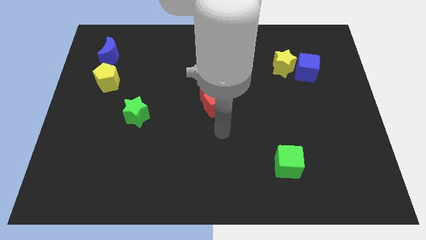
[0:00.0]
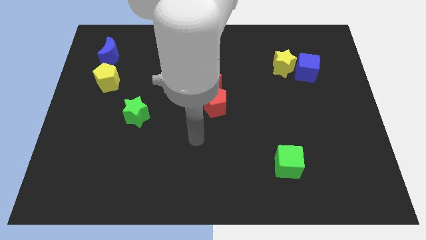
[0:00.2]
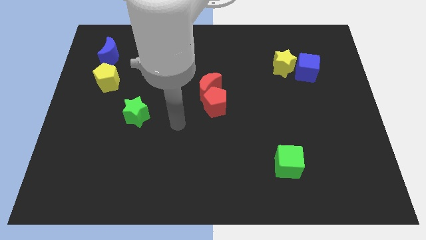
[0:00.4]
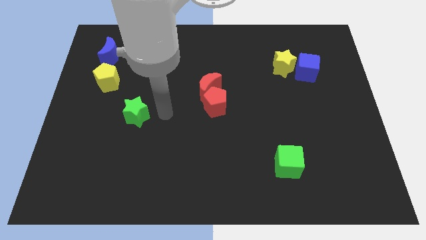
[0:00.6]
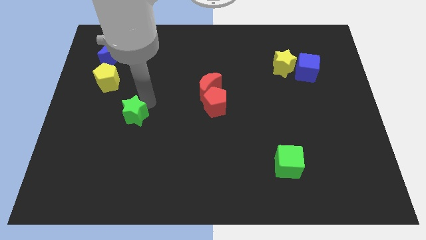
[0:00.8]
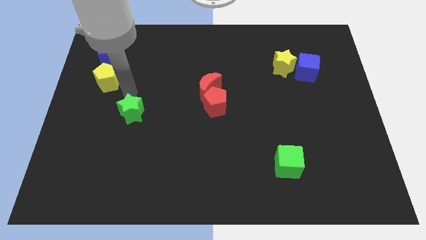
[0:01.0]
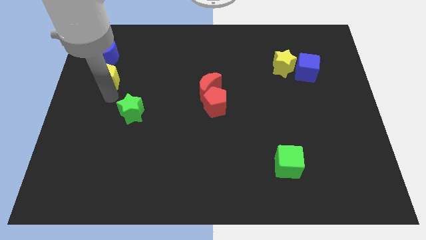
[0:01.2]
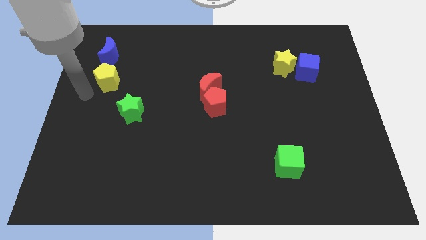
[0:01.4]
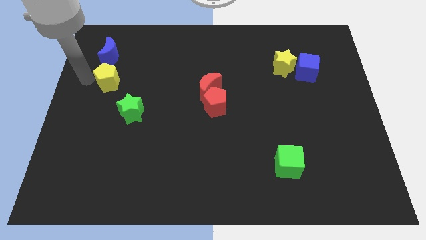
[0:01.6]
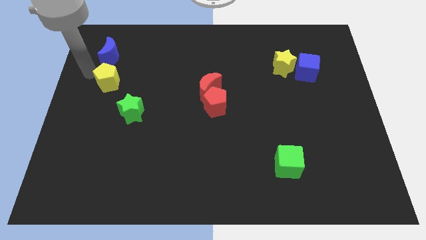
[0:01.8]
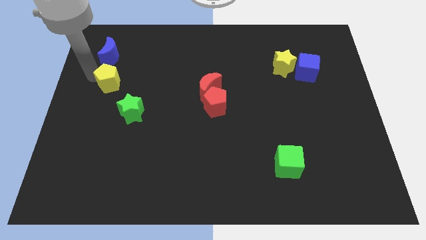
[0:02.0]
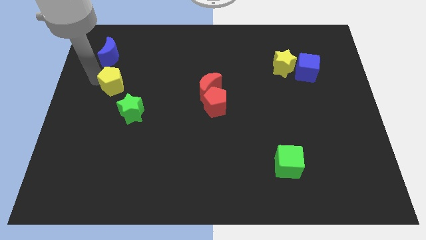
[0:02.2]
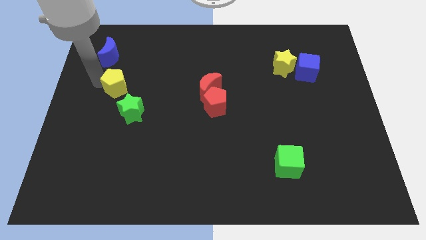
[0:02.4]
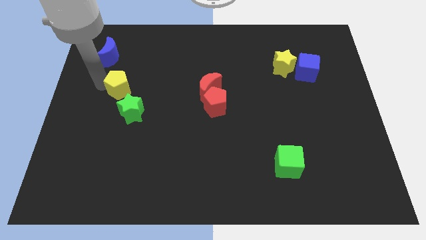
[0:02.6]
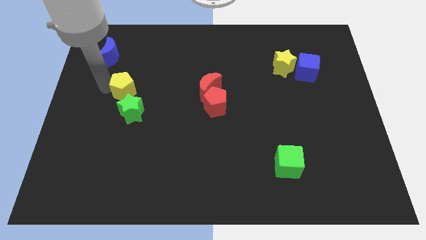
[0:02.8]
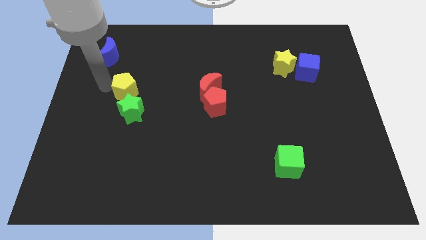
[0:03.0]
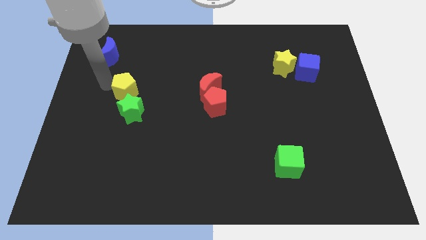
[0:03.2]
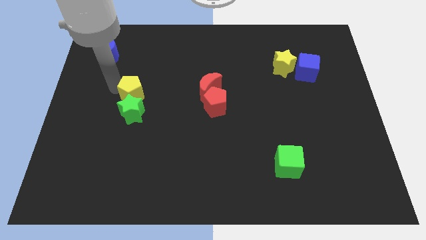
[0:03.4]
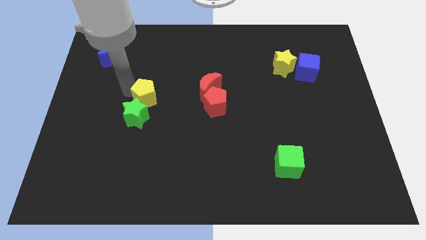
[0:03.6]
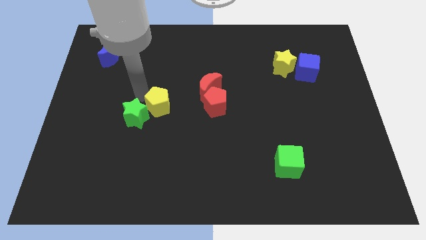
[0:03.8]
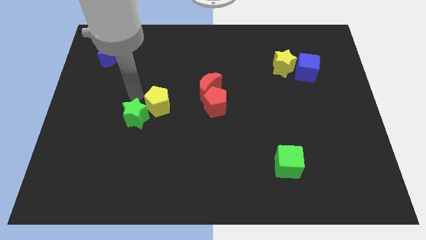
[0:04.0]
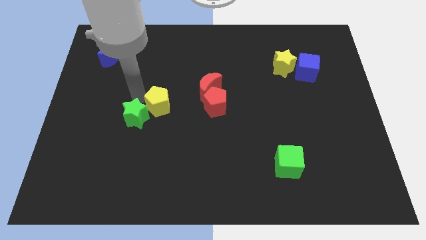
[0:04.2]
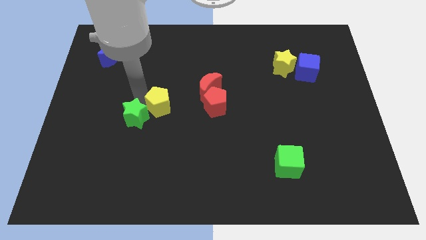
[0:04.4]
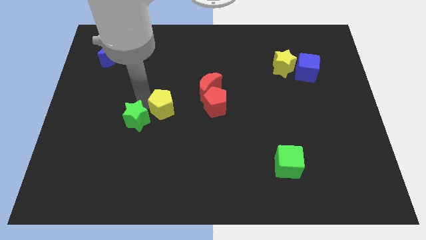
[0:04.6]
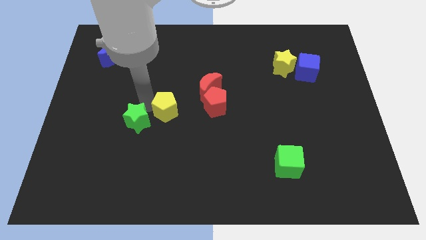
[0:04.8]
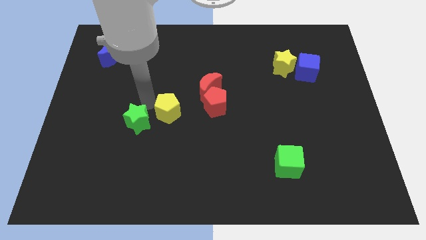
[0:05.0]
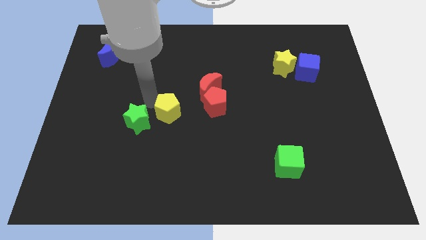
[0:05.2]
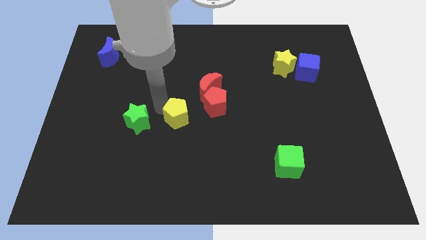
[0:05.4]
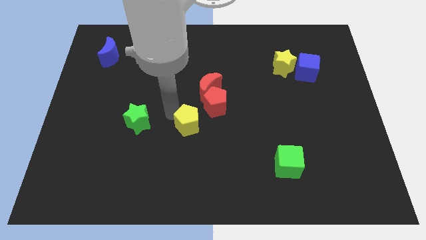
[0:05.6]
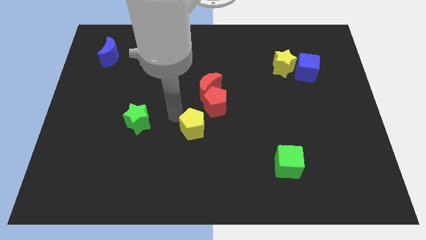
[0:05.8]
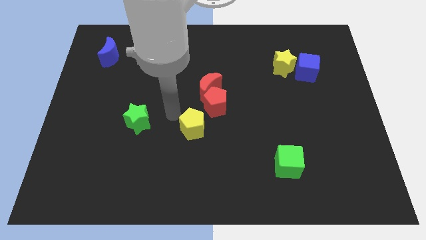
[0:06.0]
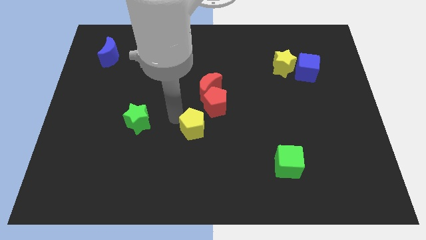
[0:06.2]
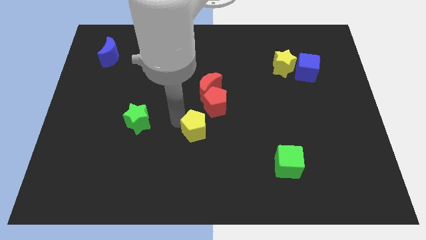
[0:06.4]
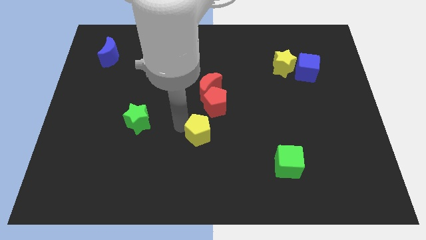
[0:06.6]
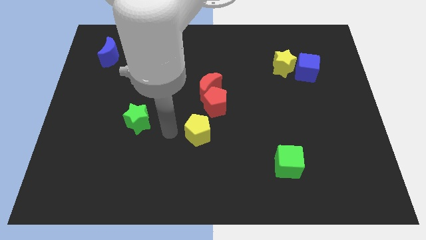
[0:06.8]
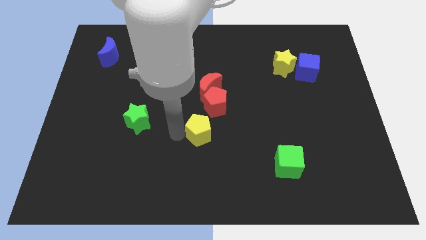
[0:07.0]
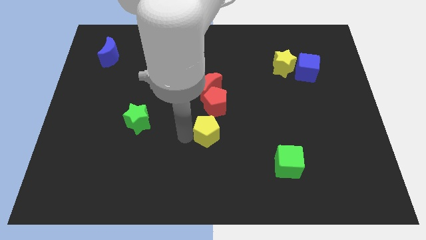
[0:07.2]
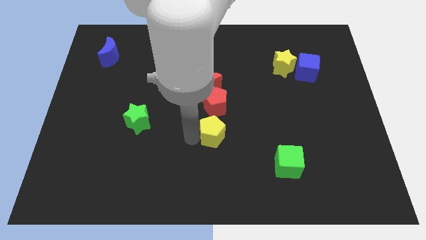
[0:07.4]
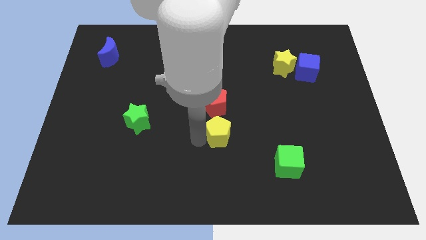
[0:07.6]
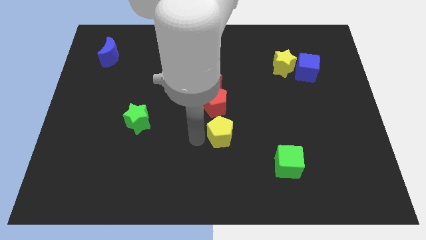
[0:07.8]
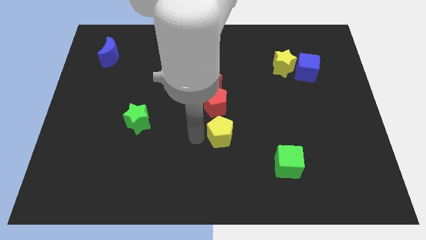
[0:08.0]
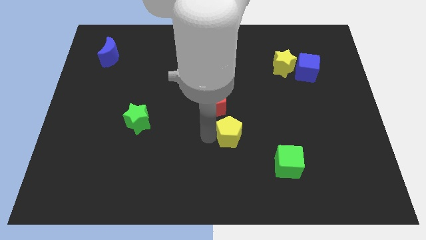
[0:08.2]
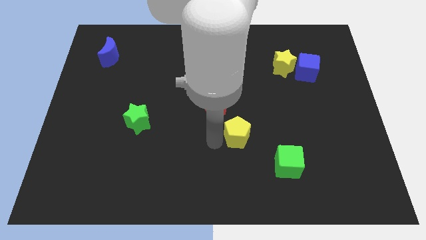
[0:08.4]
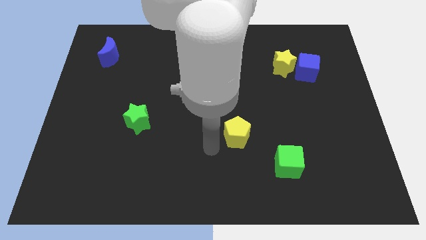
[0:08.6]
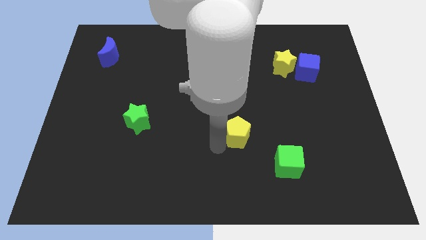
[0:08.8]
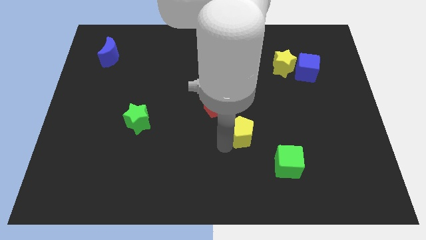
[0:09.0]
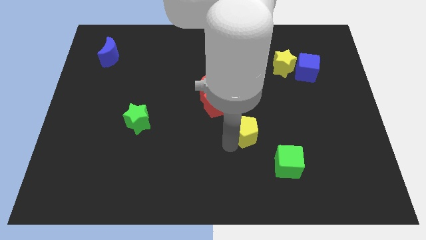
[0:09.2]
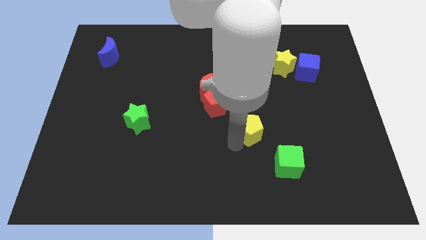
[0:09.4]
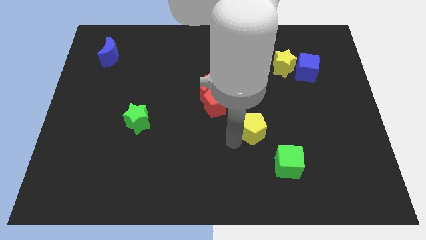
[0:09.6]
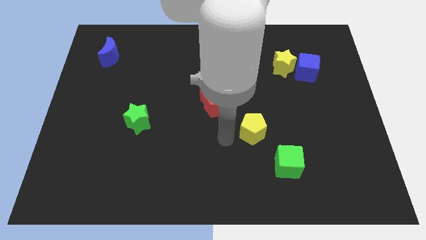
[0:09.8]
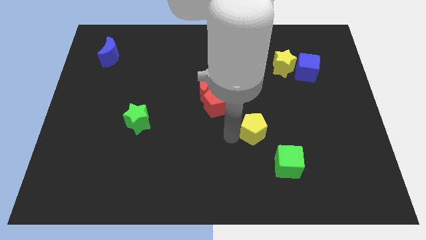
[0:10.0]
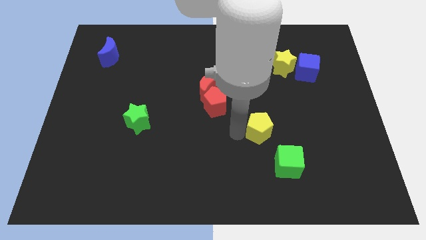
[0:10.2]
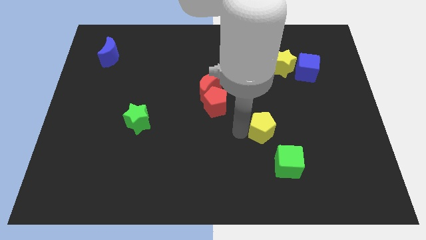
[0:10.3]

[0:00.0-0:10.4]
push the yellow pentagon to the top side of the green cube

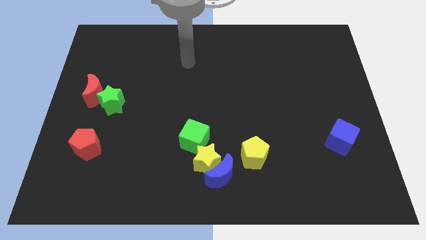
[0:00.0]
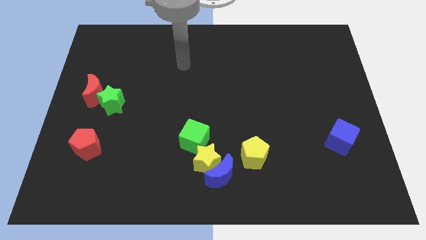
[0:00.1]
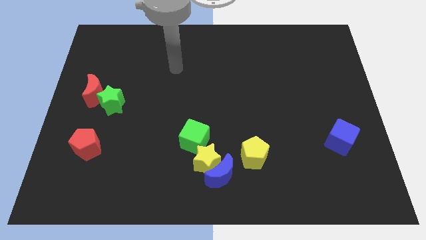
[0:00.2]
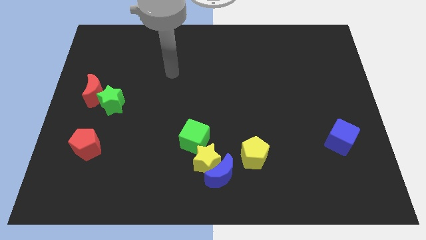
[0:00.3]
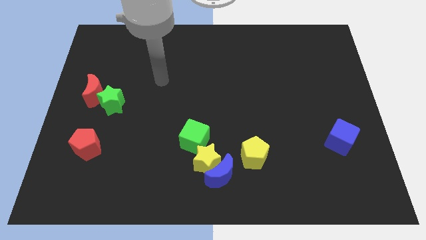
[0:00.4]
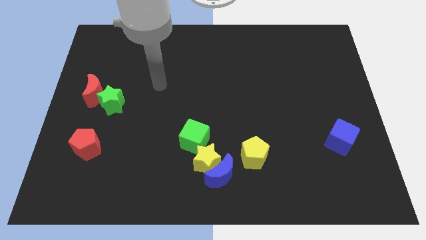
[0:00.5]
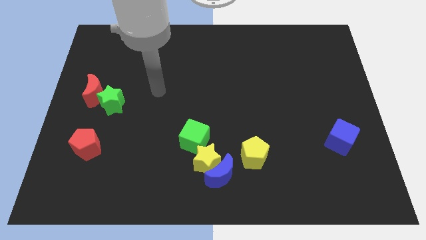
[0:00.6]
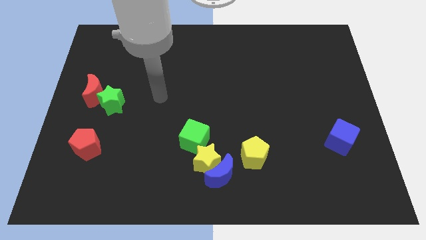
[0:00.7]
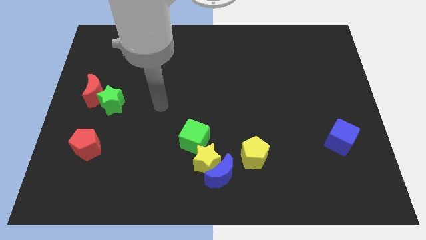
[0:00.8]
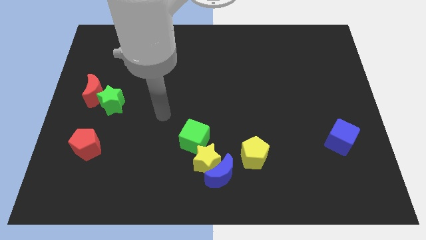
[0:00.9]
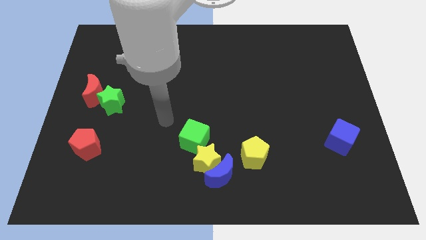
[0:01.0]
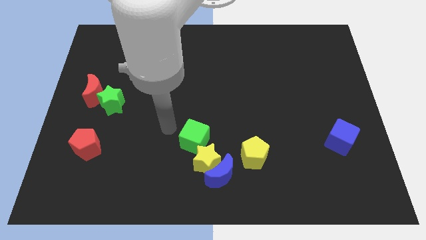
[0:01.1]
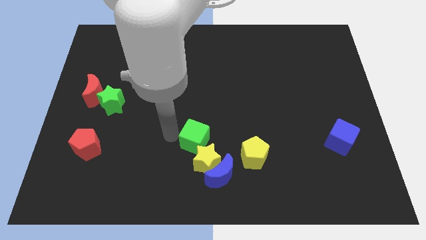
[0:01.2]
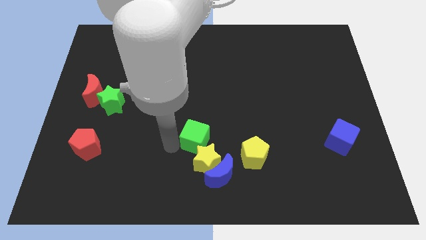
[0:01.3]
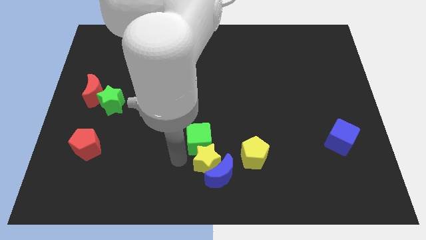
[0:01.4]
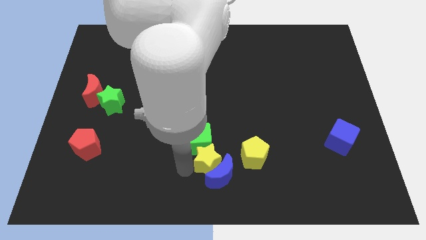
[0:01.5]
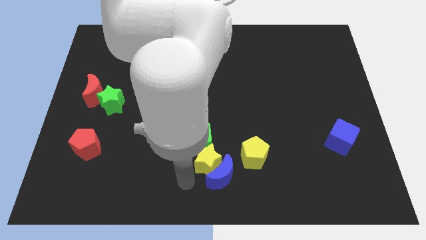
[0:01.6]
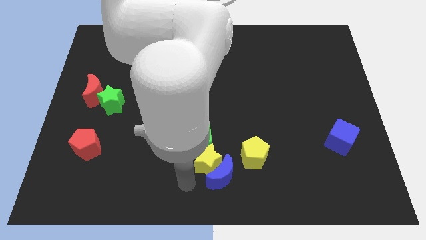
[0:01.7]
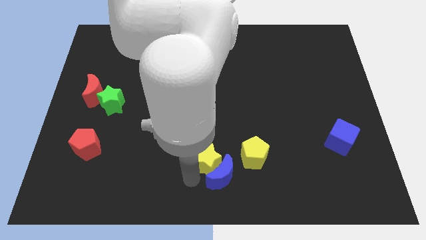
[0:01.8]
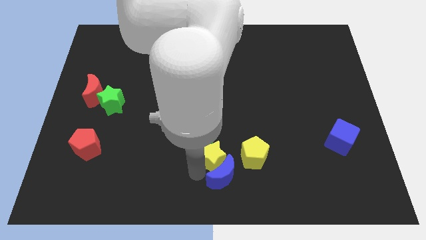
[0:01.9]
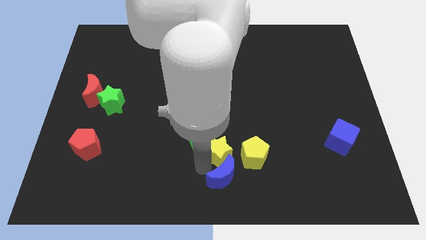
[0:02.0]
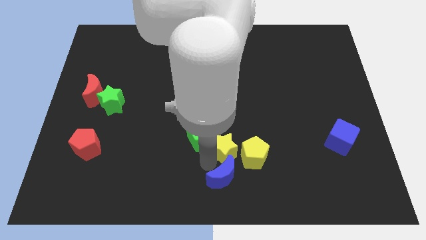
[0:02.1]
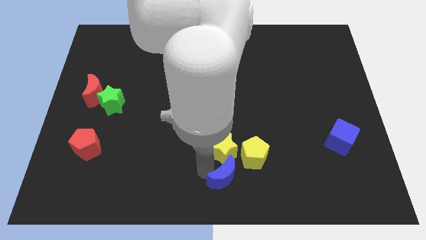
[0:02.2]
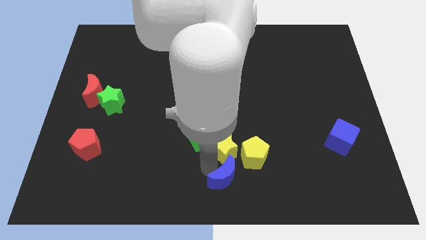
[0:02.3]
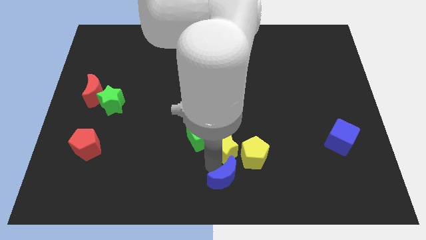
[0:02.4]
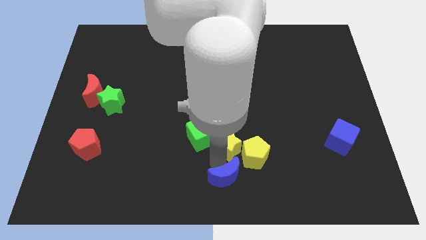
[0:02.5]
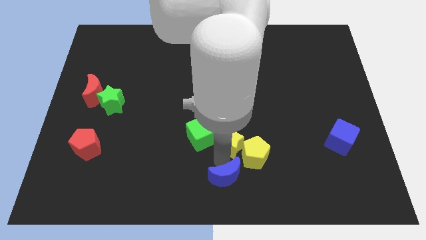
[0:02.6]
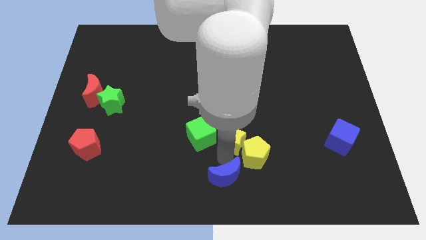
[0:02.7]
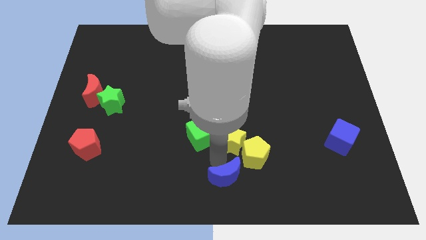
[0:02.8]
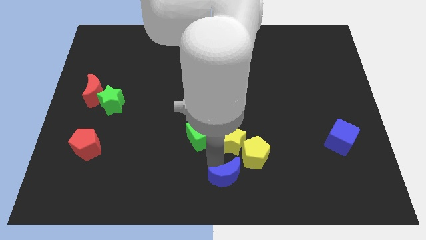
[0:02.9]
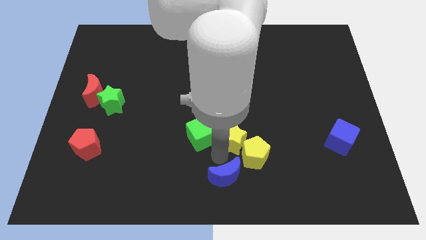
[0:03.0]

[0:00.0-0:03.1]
put the yellow star above the yellow pentagon
